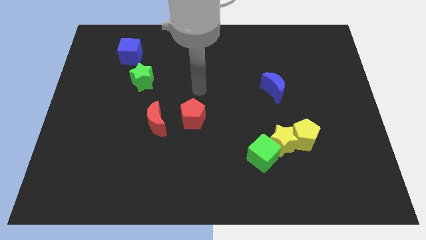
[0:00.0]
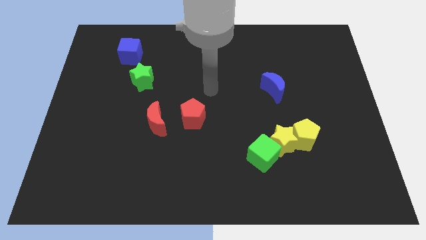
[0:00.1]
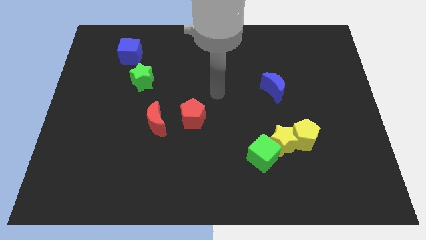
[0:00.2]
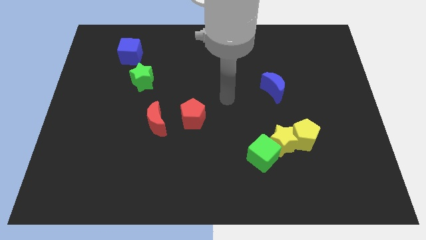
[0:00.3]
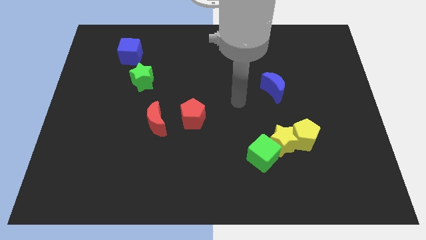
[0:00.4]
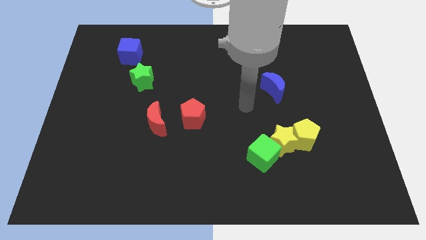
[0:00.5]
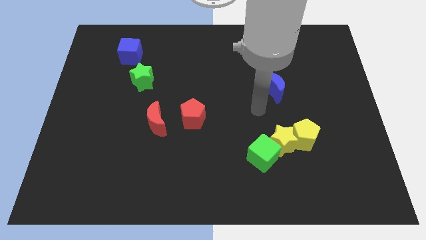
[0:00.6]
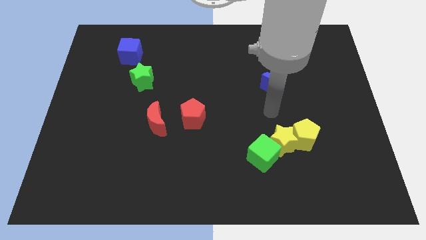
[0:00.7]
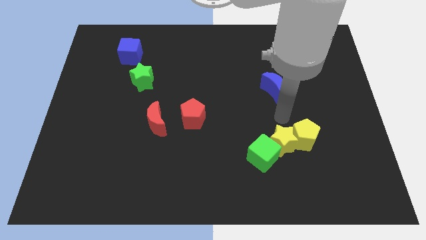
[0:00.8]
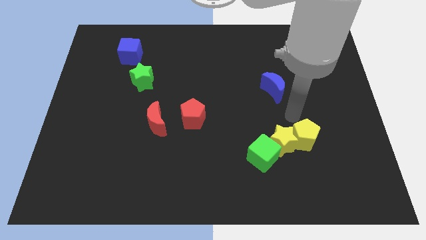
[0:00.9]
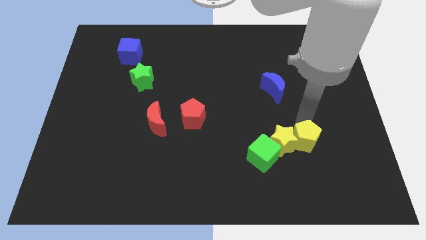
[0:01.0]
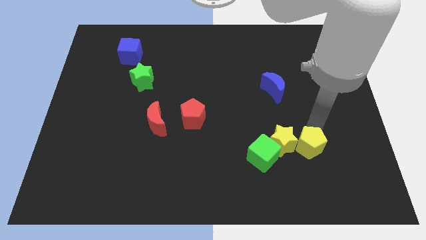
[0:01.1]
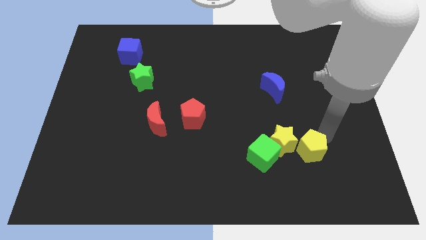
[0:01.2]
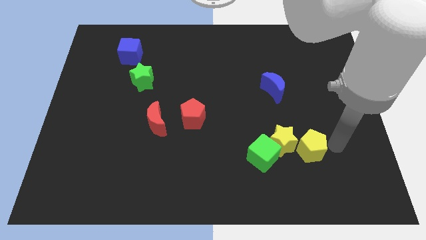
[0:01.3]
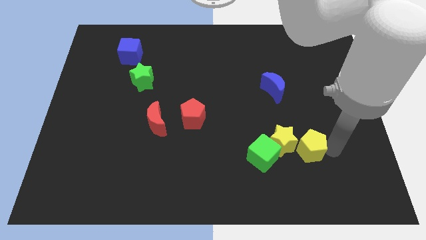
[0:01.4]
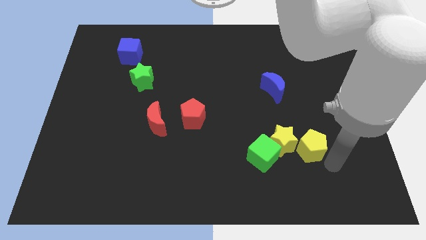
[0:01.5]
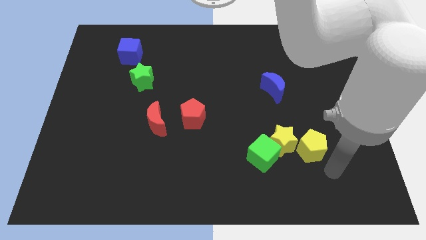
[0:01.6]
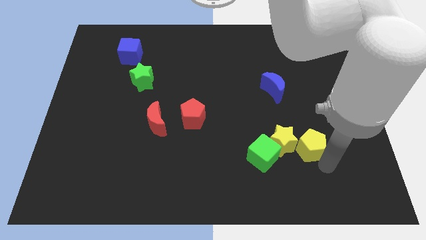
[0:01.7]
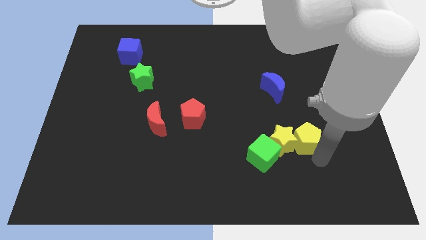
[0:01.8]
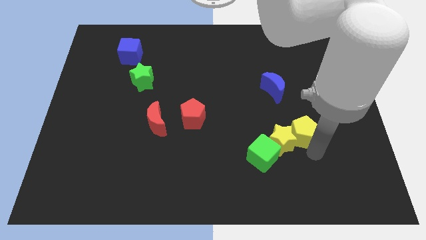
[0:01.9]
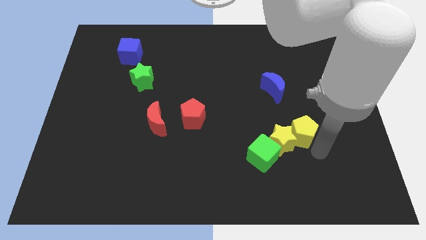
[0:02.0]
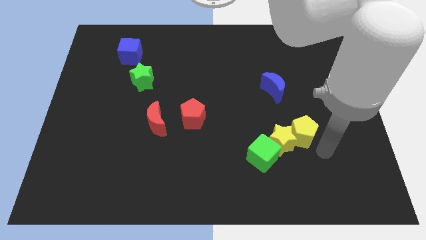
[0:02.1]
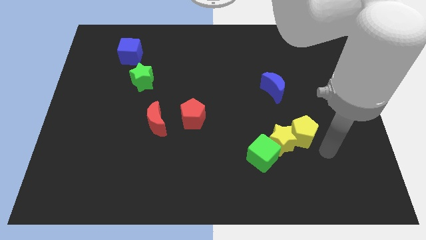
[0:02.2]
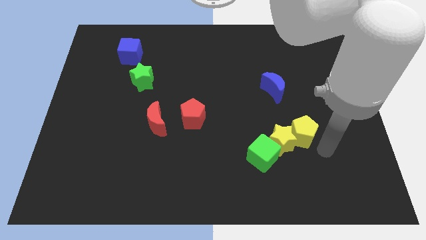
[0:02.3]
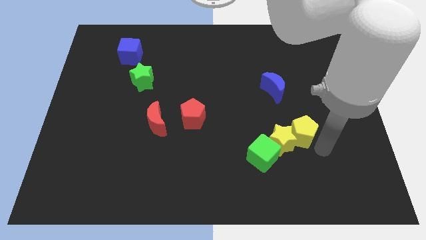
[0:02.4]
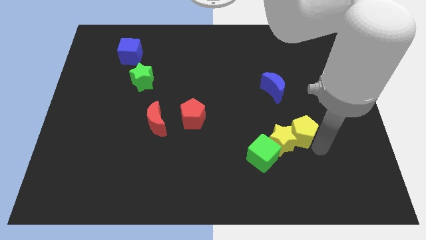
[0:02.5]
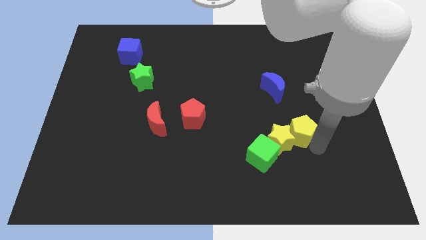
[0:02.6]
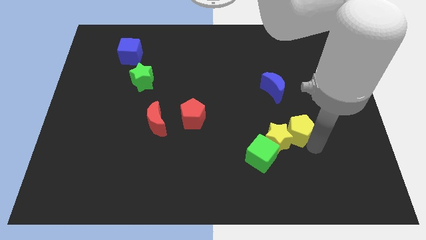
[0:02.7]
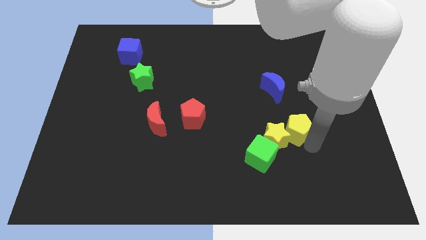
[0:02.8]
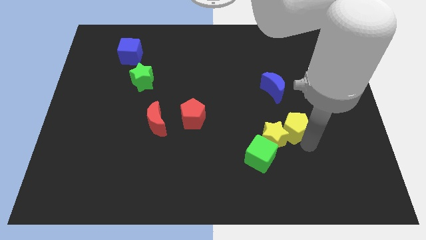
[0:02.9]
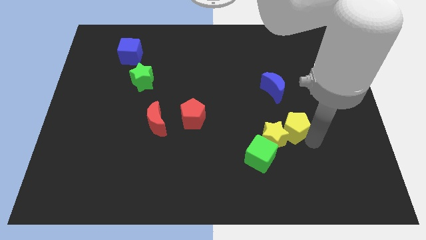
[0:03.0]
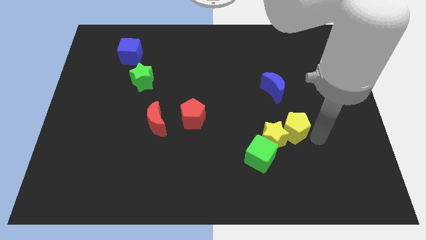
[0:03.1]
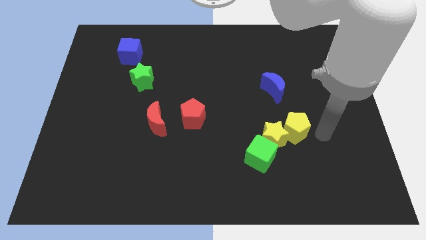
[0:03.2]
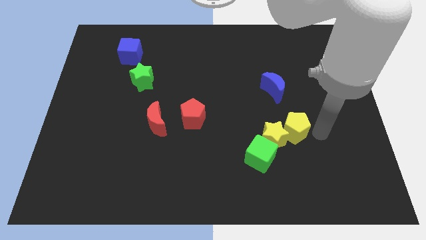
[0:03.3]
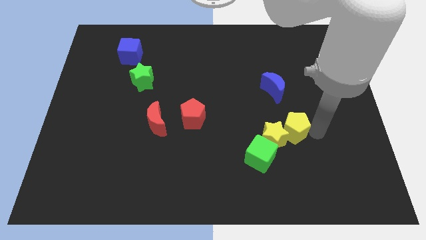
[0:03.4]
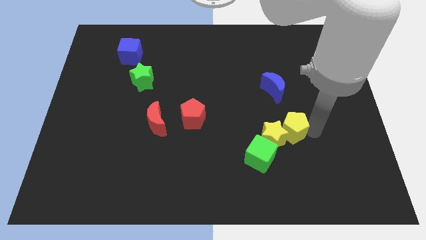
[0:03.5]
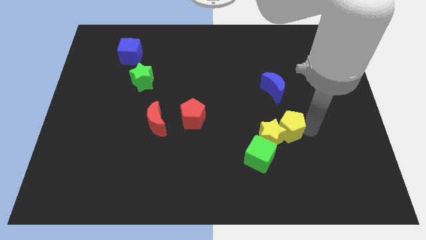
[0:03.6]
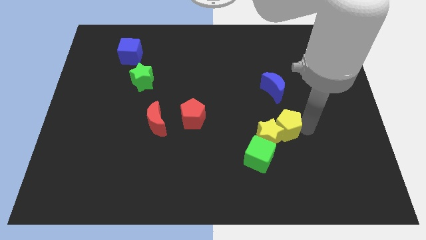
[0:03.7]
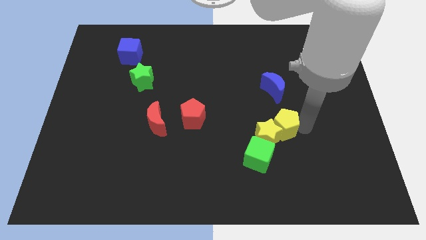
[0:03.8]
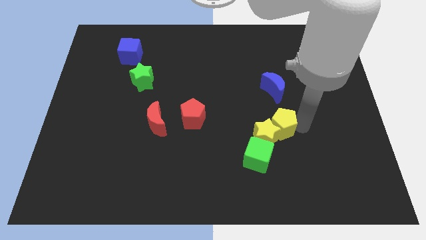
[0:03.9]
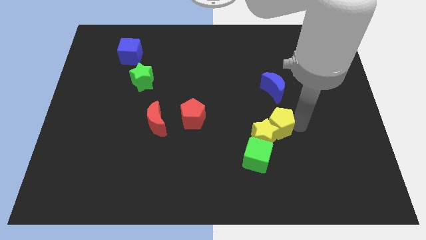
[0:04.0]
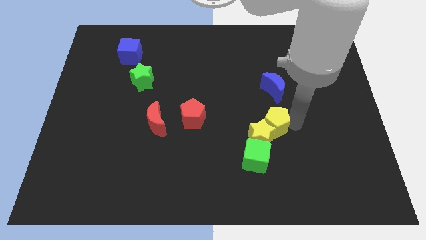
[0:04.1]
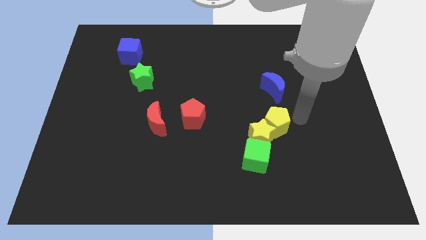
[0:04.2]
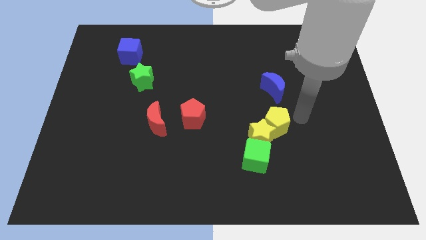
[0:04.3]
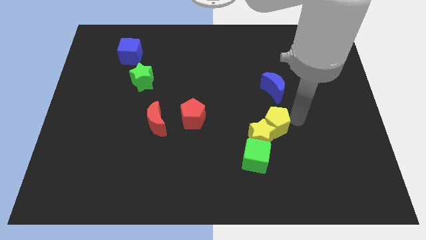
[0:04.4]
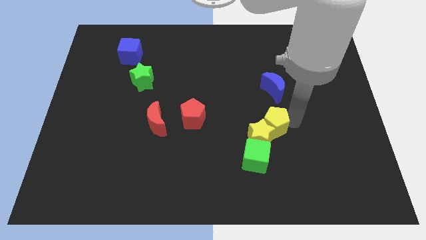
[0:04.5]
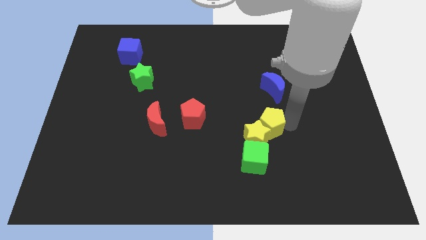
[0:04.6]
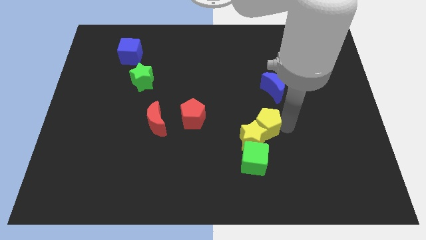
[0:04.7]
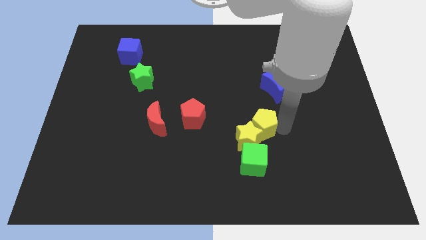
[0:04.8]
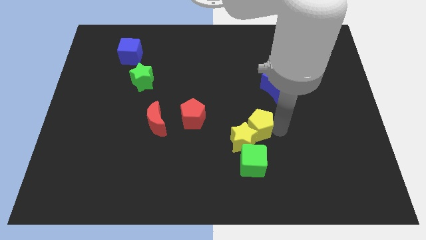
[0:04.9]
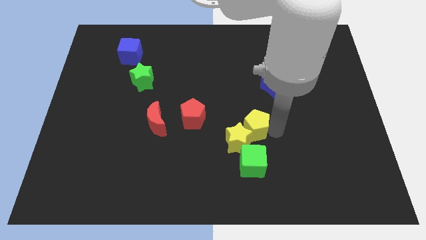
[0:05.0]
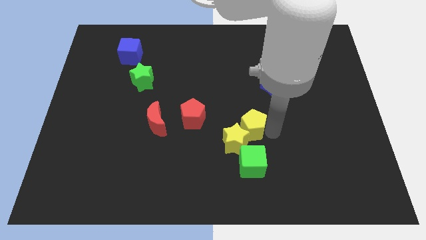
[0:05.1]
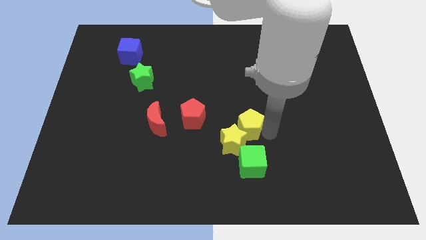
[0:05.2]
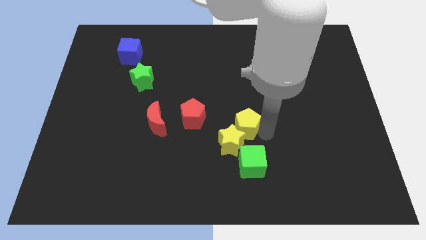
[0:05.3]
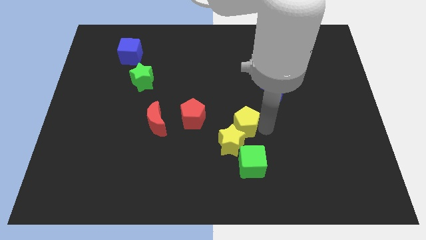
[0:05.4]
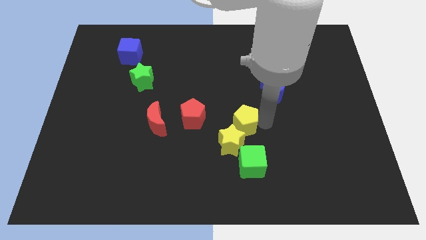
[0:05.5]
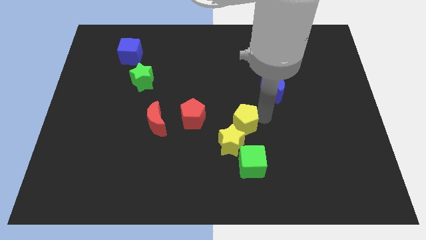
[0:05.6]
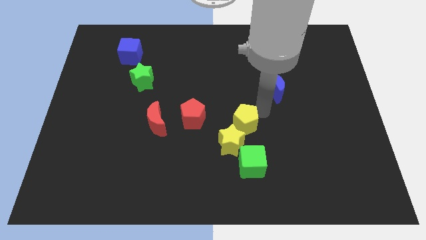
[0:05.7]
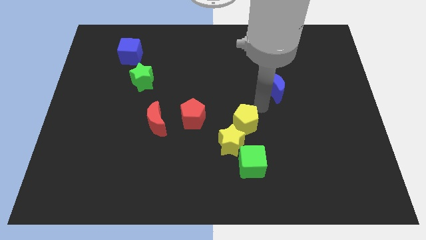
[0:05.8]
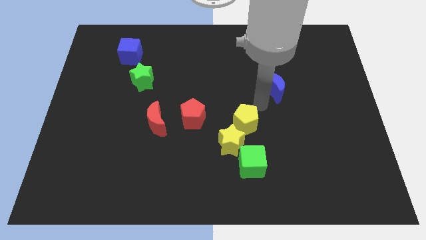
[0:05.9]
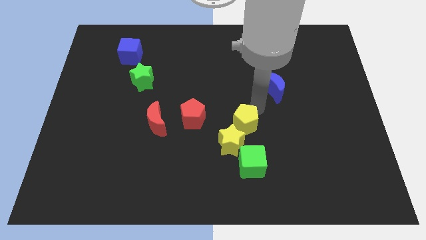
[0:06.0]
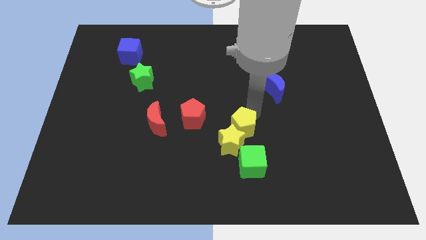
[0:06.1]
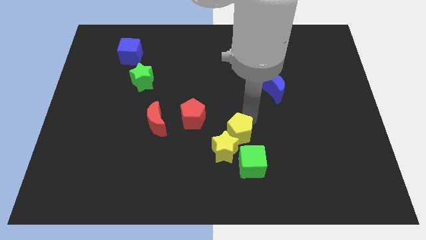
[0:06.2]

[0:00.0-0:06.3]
put the yellow pentagon diagonally up and to the left of the green cube
